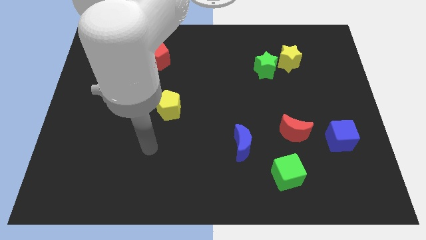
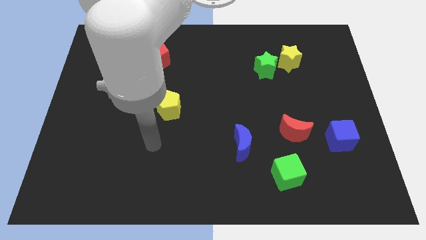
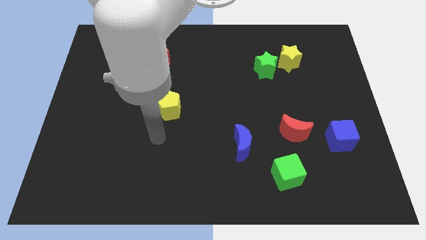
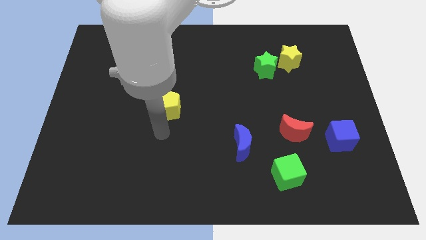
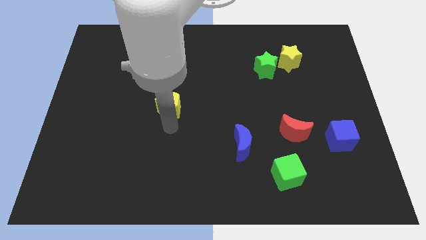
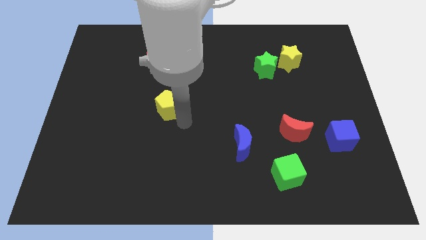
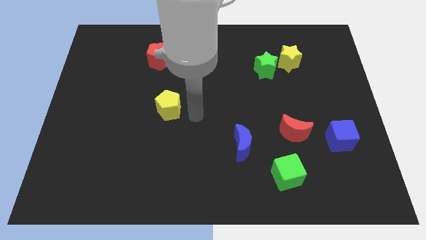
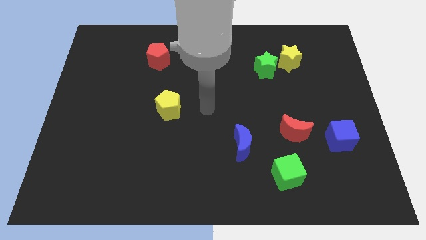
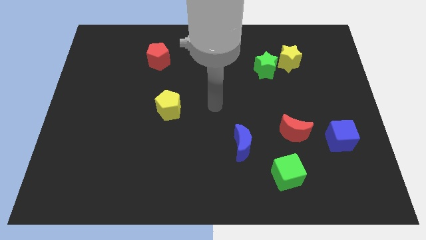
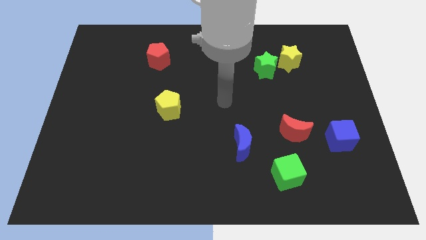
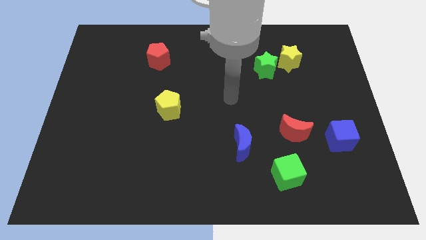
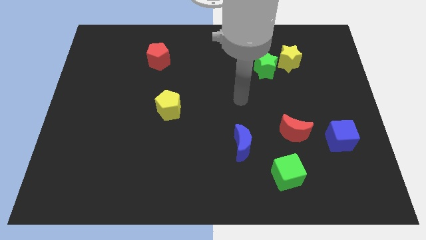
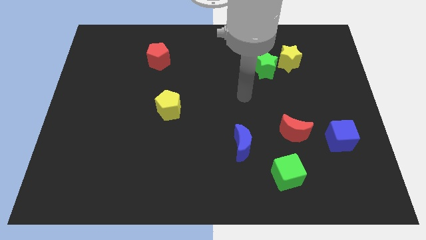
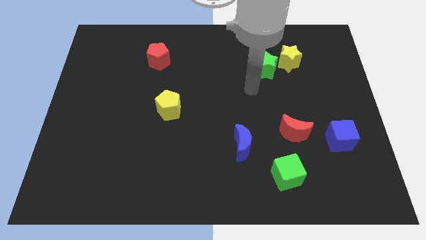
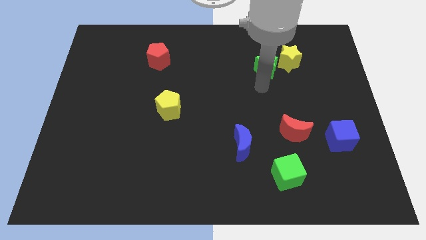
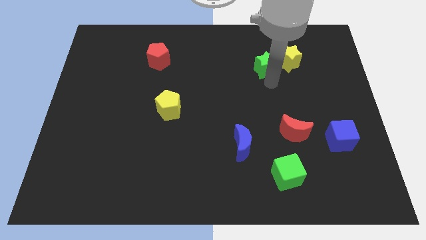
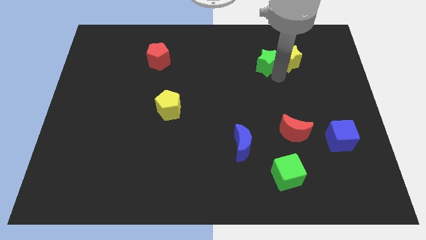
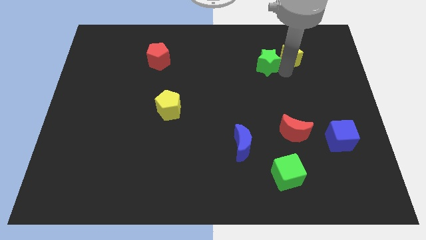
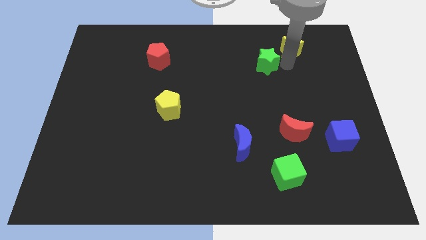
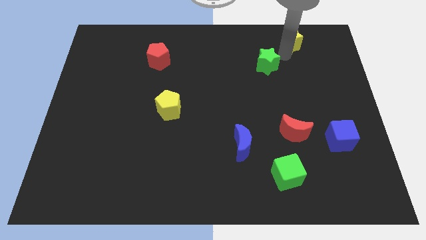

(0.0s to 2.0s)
move the green star away from the yellow star

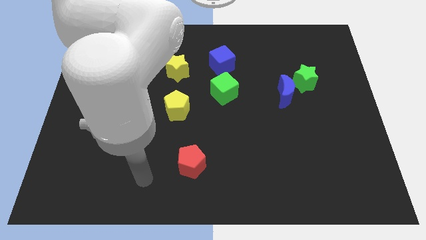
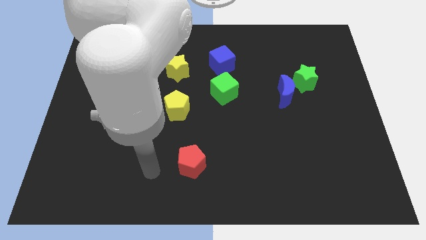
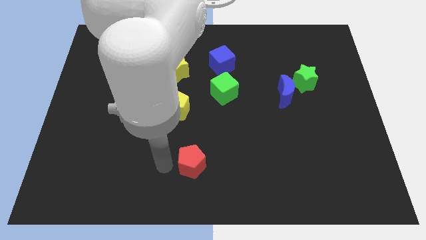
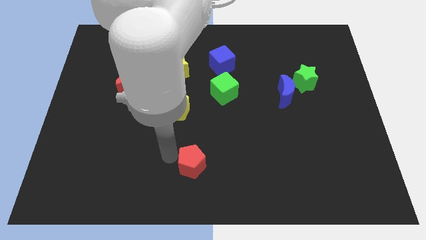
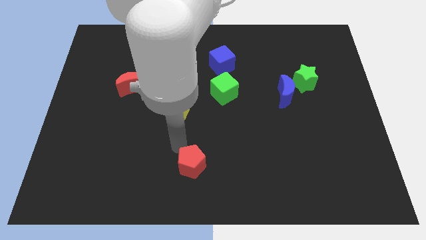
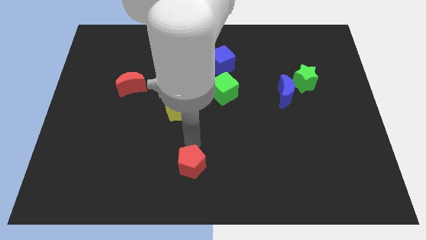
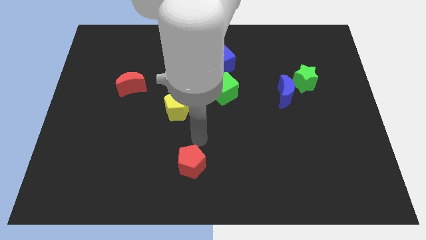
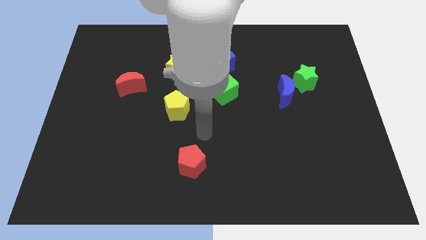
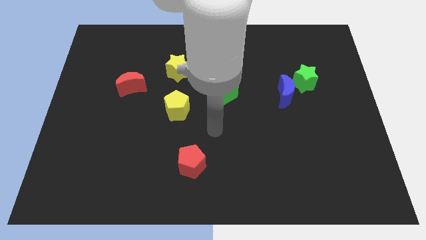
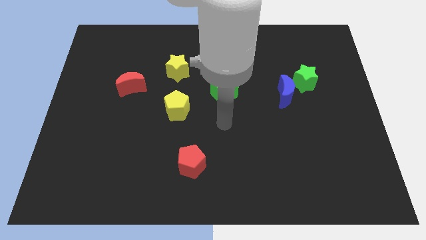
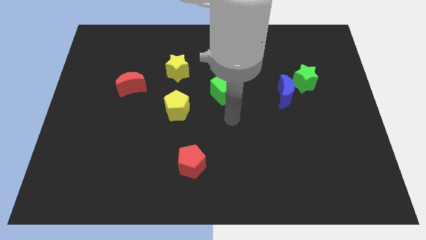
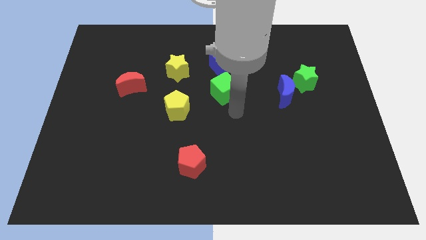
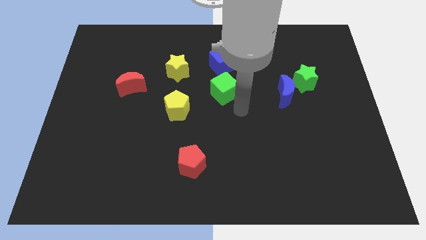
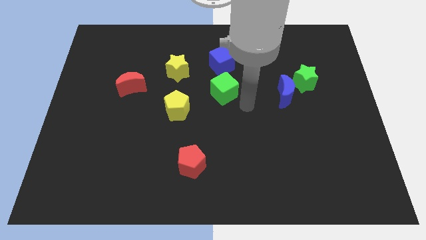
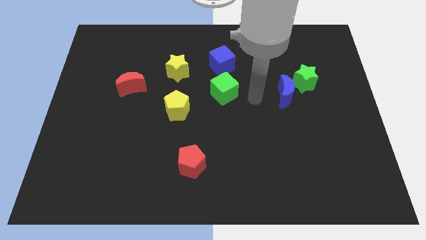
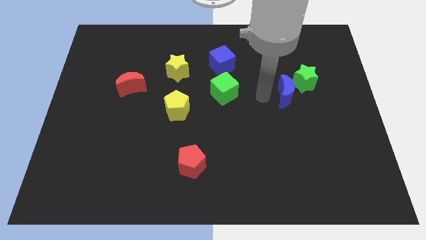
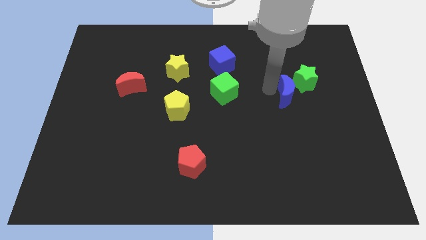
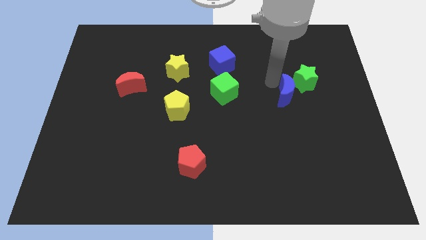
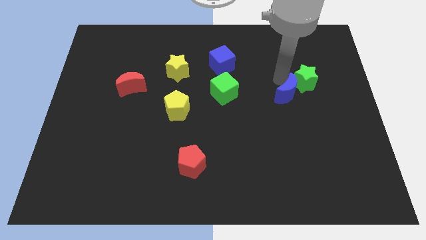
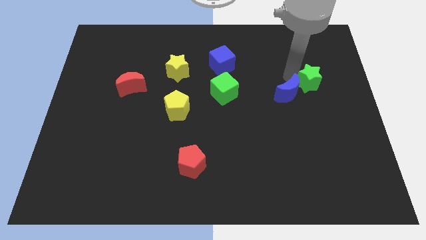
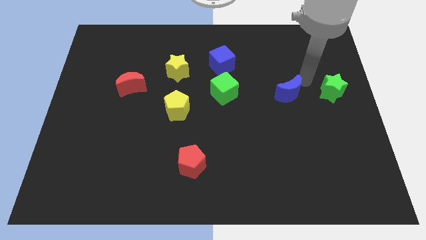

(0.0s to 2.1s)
pull the blue moon apart from the green star

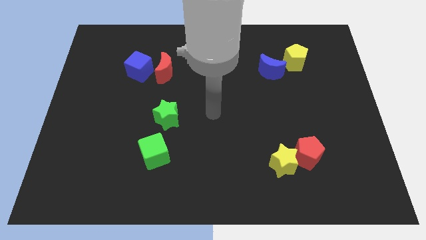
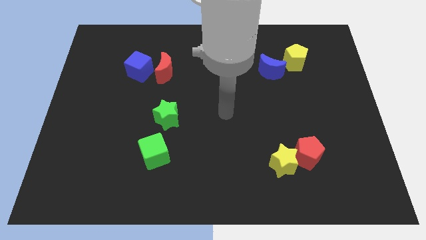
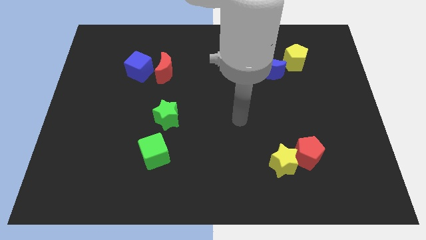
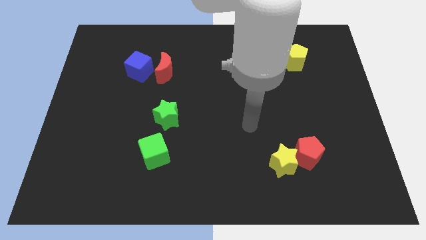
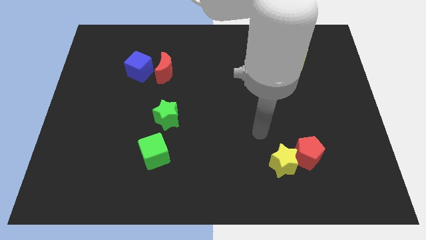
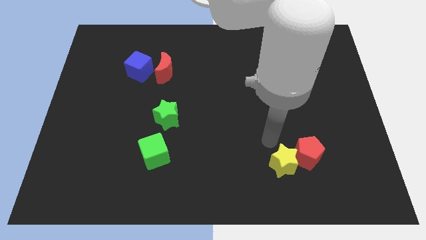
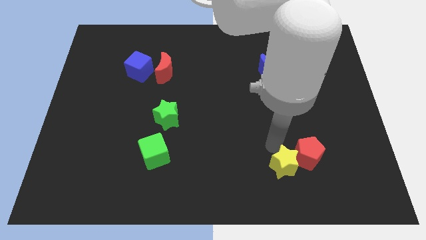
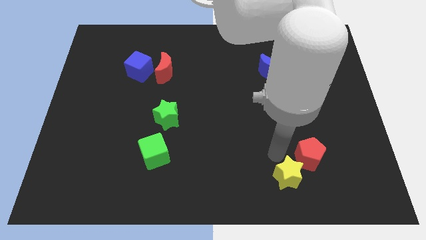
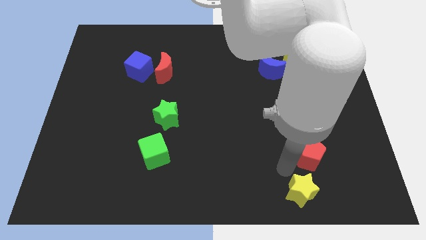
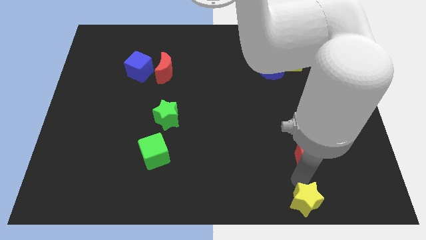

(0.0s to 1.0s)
separate the red pentagon from the yellow star

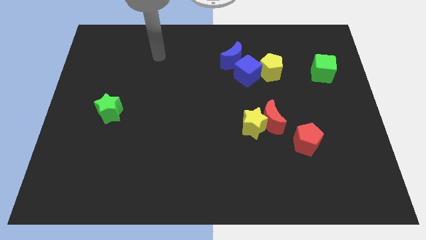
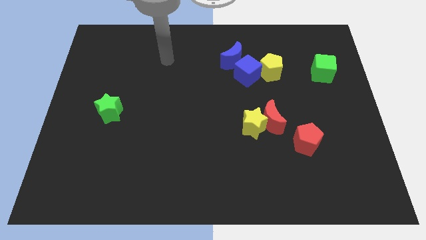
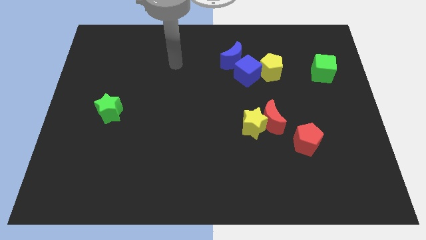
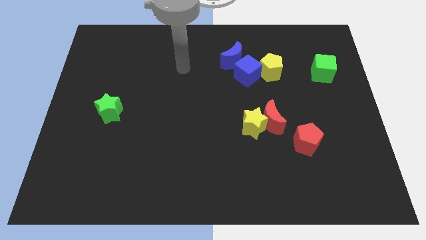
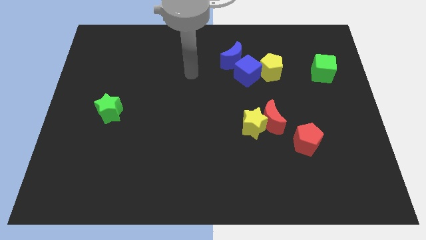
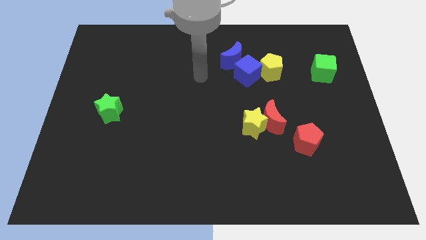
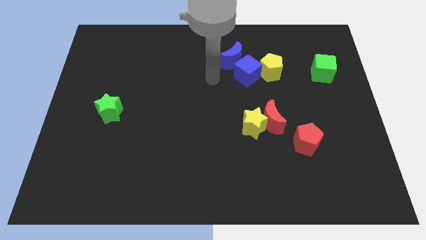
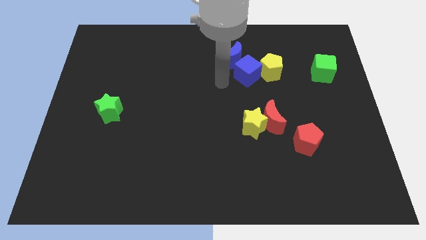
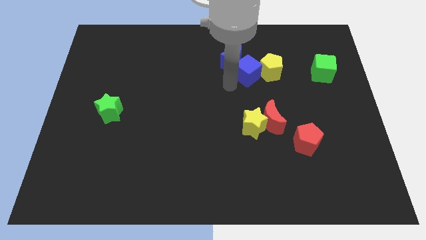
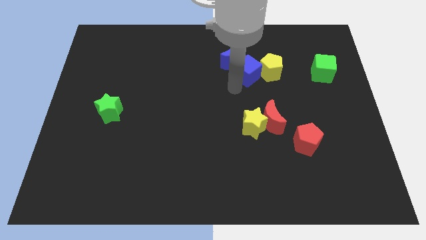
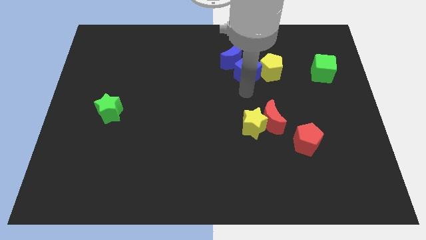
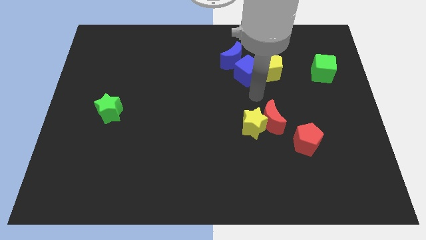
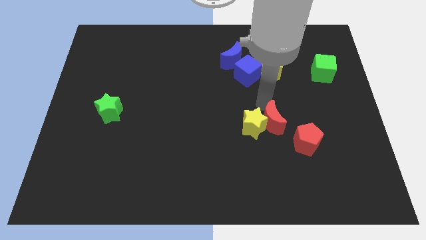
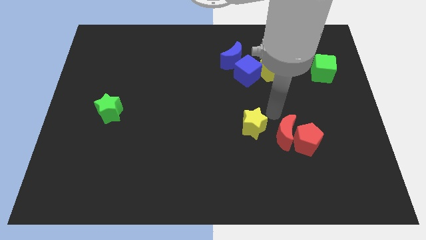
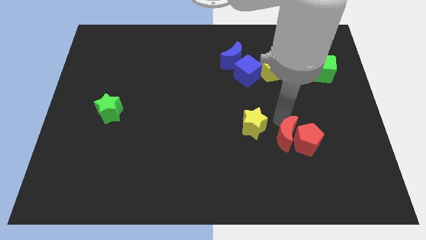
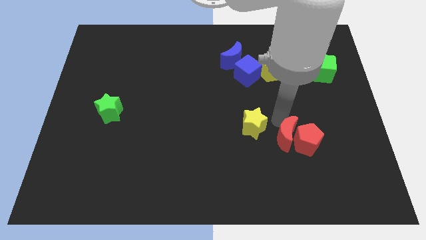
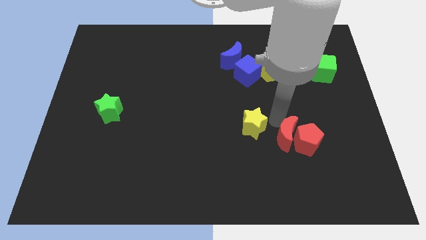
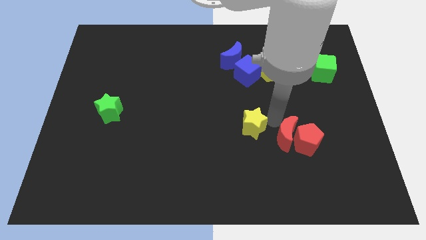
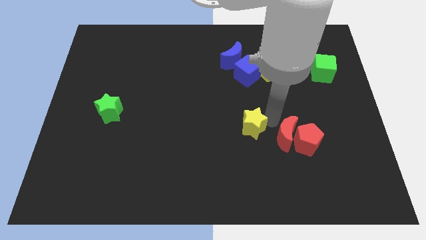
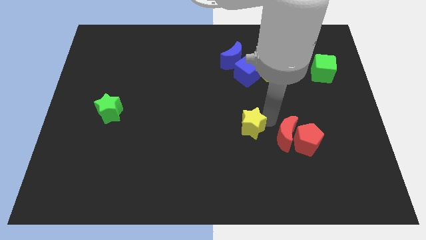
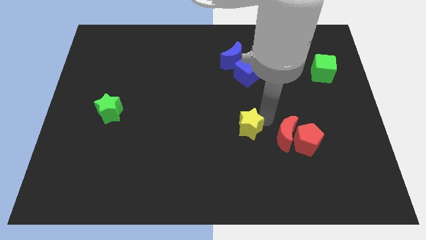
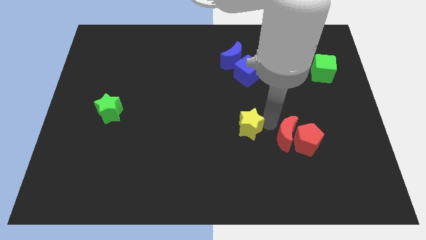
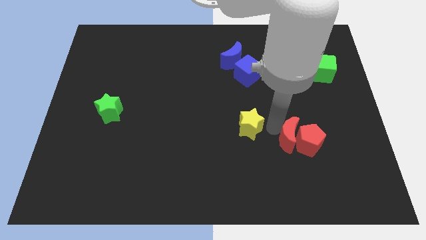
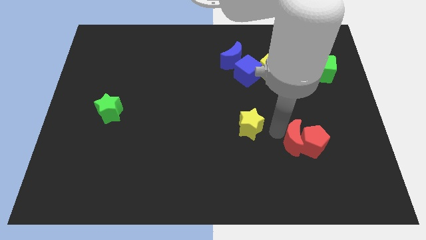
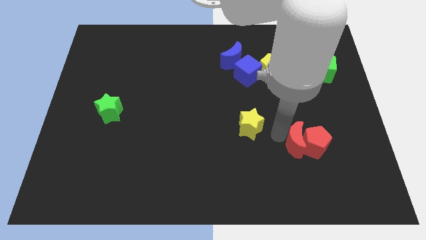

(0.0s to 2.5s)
pull the yellow star apart from the red moon

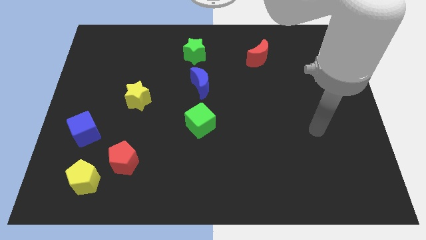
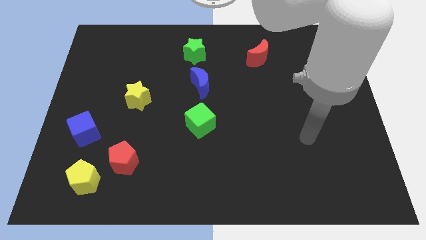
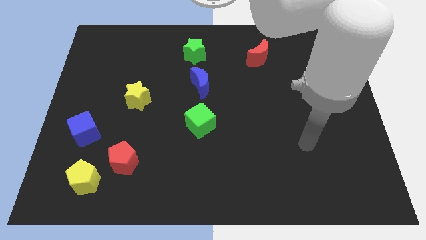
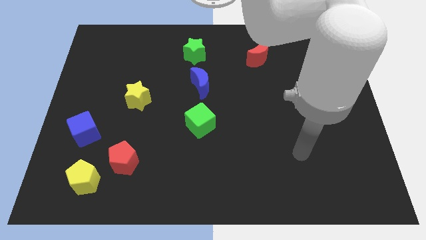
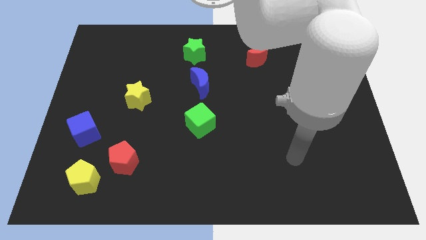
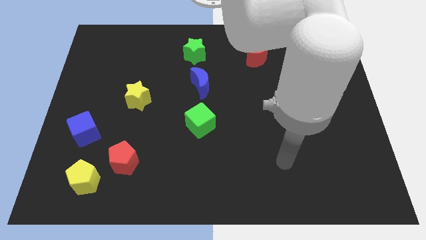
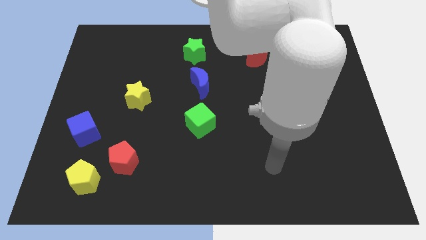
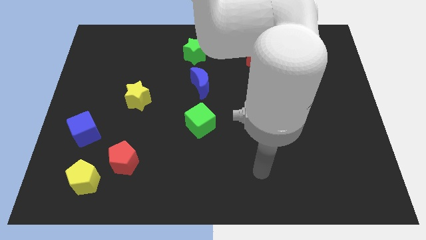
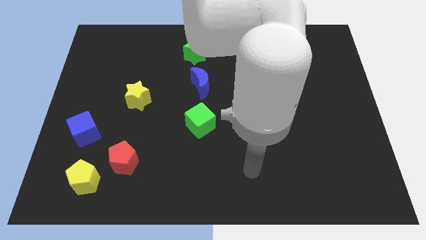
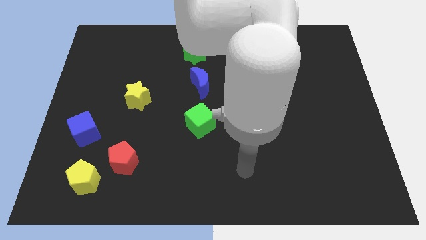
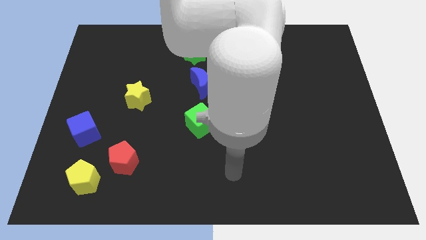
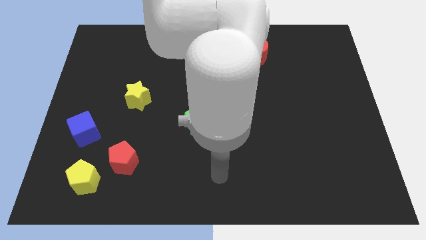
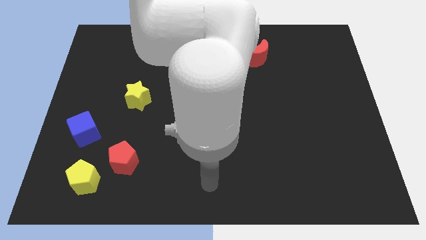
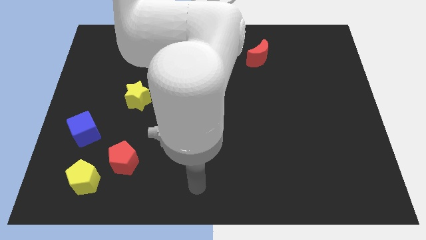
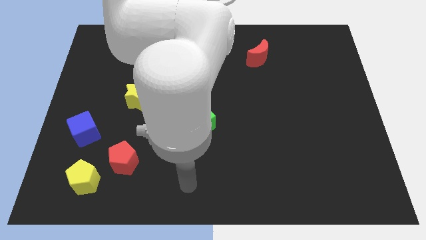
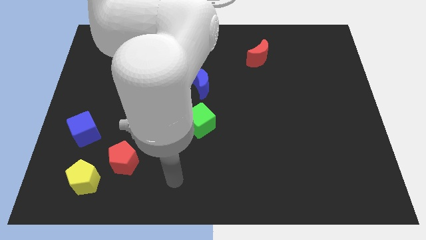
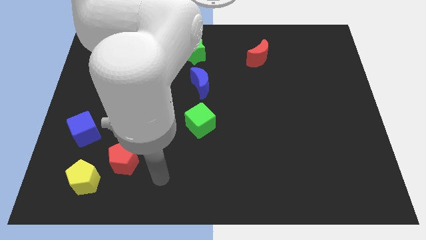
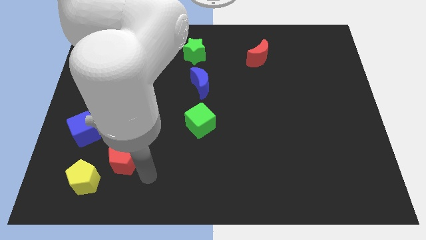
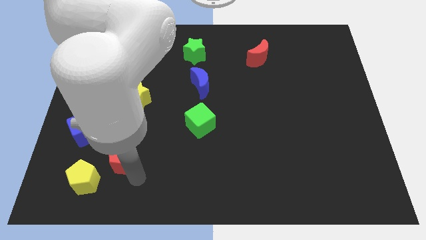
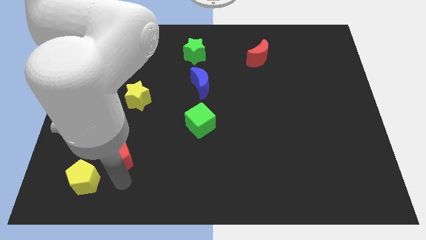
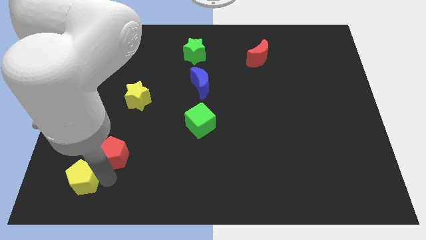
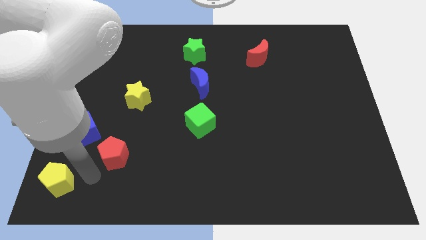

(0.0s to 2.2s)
pull the red pentagon apart from the yellow pentagon
